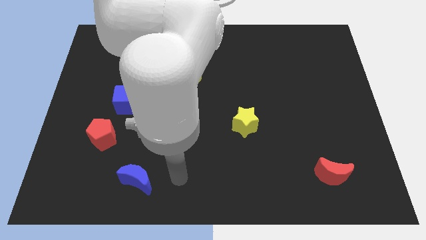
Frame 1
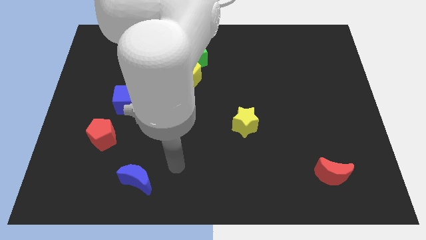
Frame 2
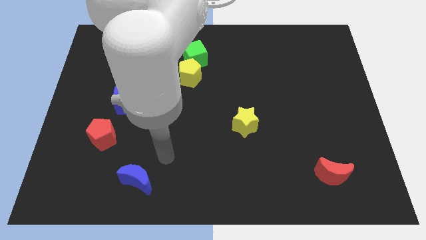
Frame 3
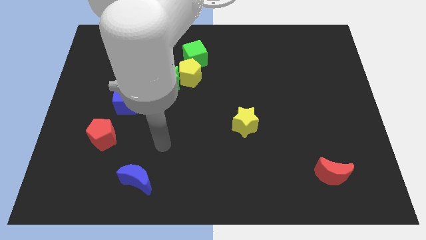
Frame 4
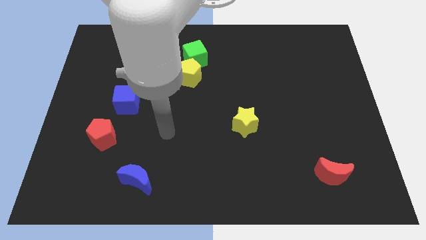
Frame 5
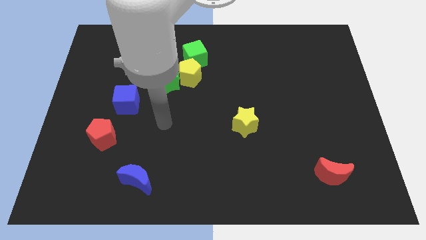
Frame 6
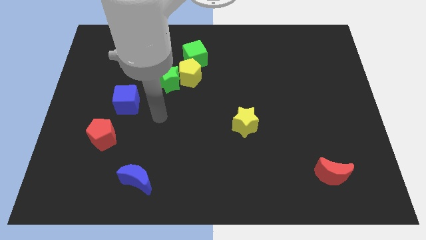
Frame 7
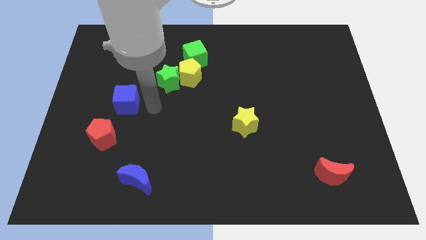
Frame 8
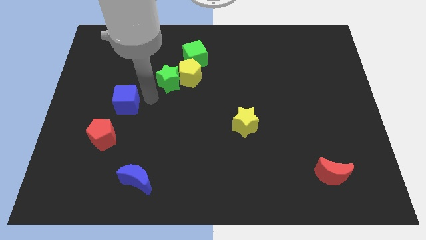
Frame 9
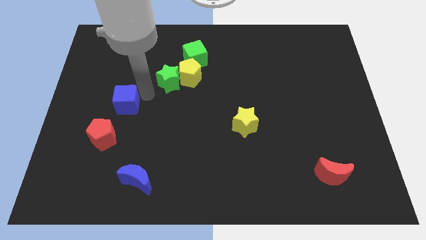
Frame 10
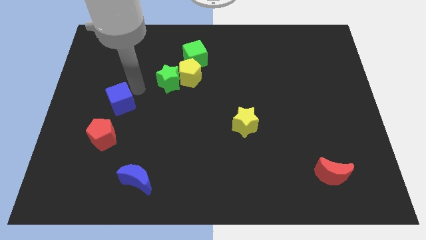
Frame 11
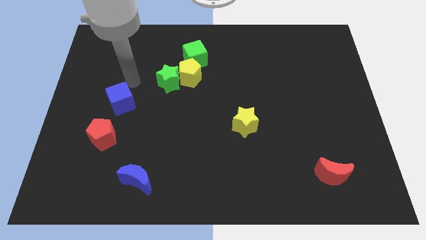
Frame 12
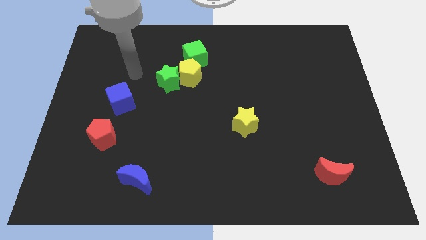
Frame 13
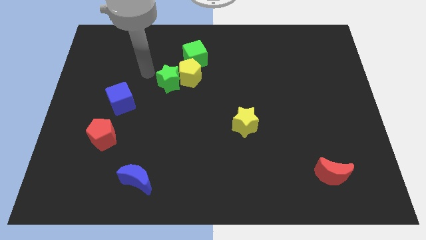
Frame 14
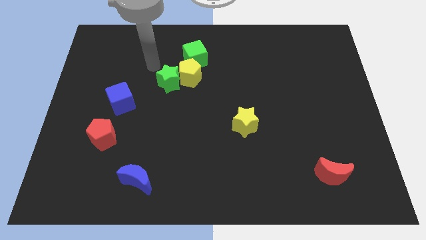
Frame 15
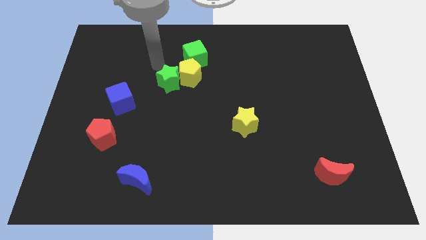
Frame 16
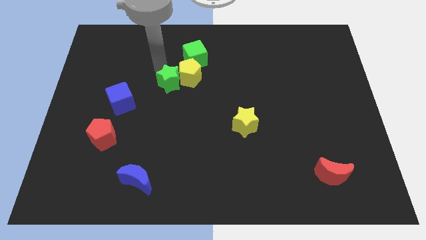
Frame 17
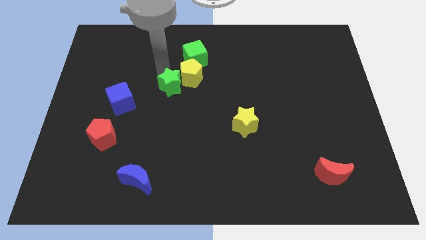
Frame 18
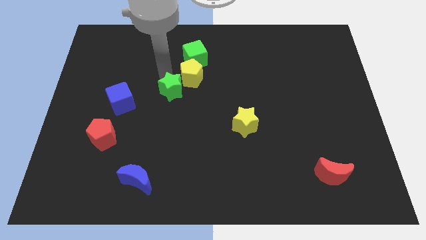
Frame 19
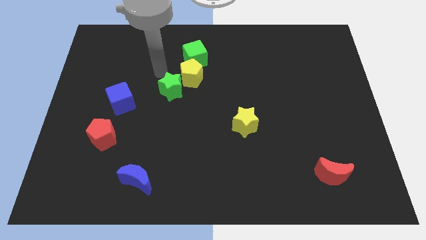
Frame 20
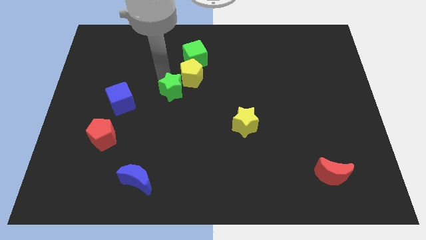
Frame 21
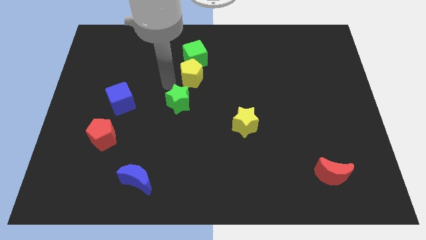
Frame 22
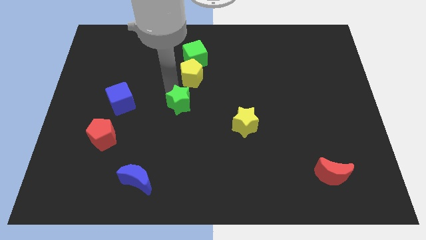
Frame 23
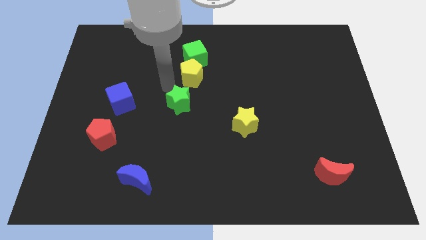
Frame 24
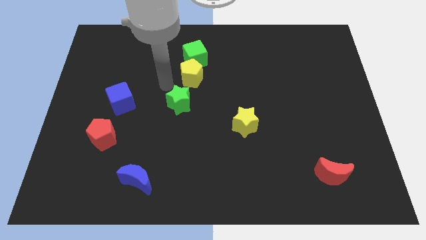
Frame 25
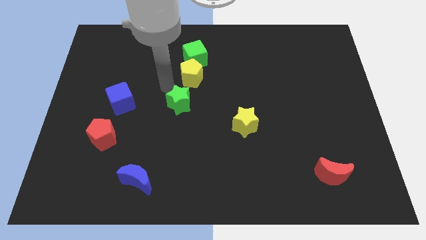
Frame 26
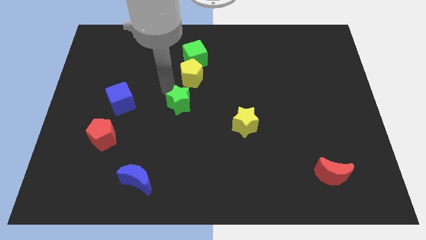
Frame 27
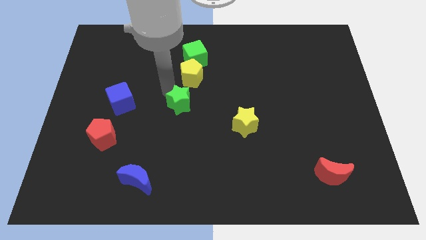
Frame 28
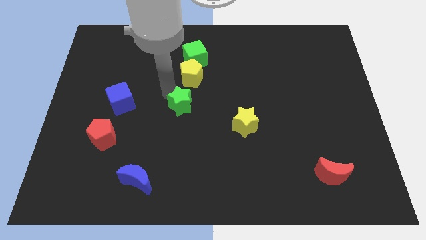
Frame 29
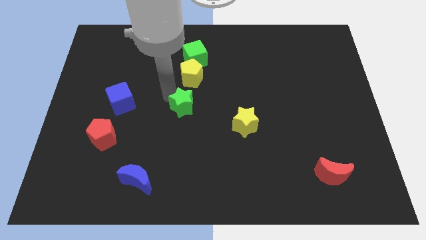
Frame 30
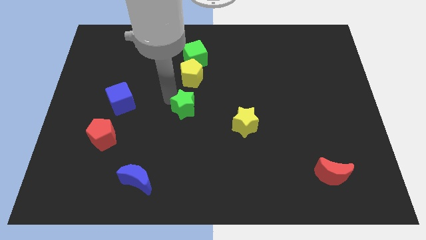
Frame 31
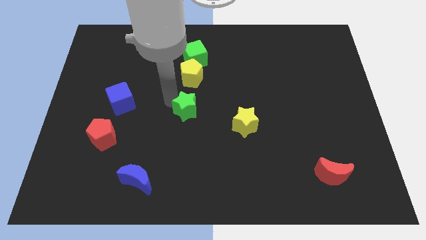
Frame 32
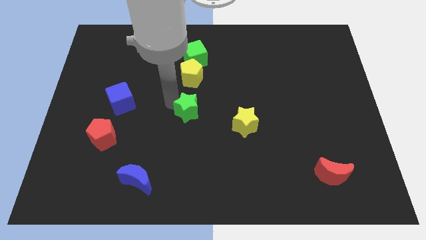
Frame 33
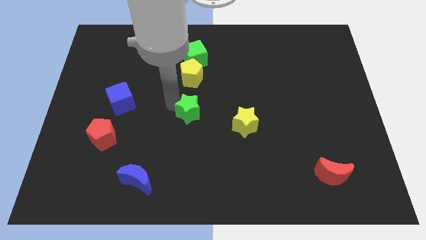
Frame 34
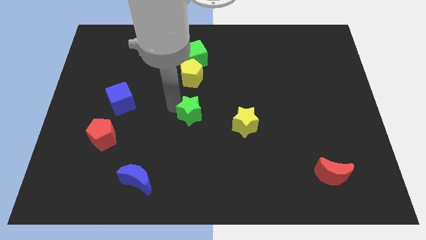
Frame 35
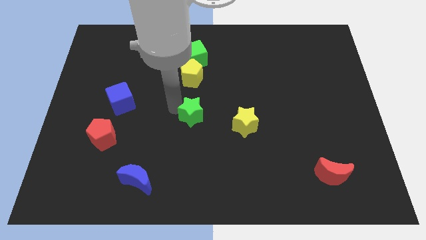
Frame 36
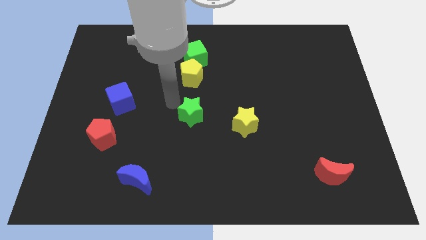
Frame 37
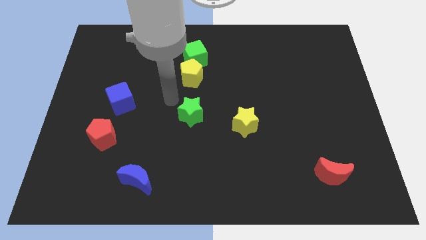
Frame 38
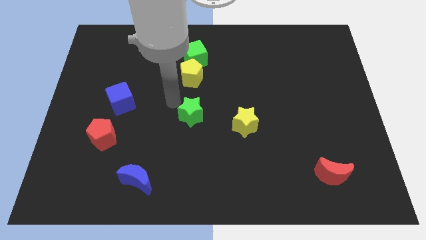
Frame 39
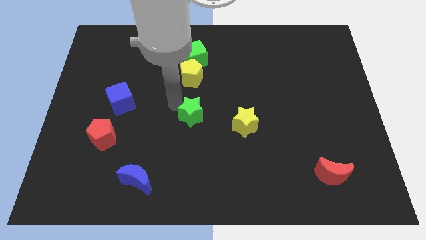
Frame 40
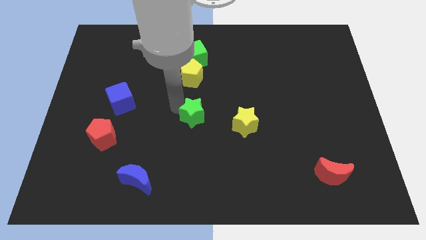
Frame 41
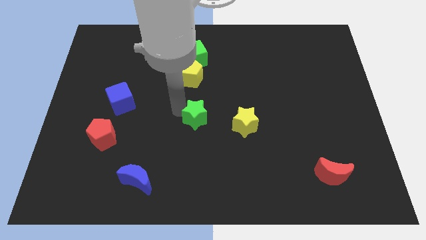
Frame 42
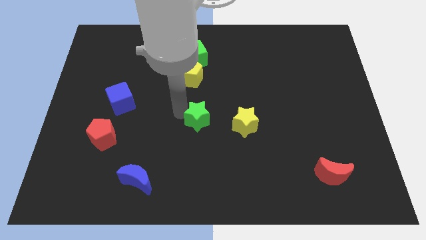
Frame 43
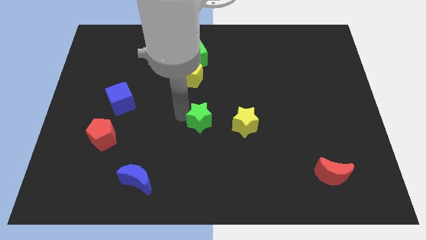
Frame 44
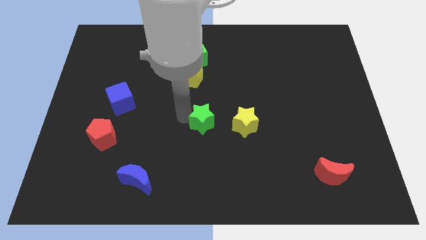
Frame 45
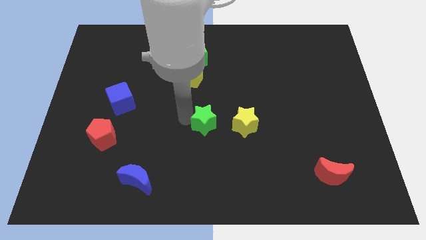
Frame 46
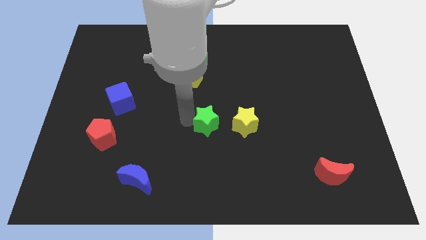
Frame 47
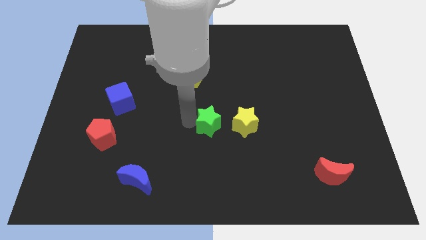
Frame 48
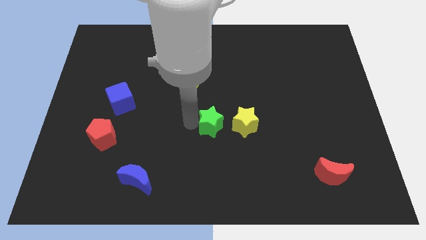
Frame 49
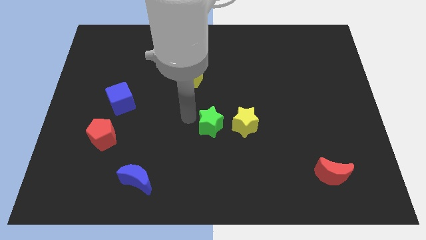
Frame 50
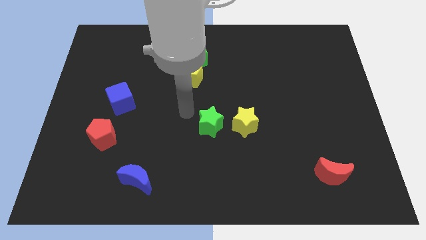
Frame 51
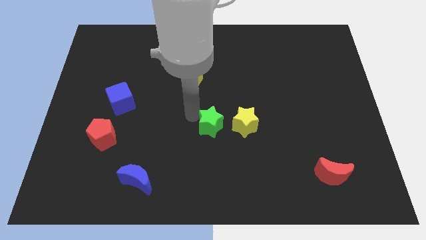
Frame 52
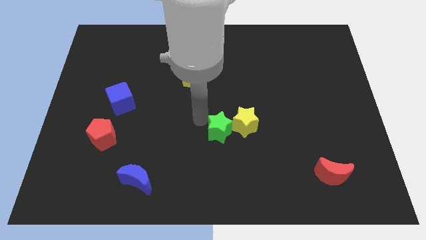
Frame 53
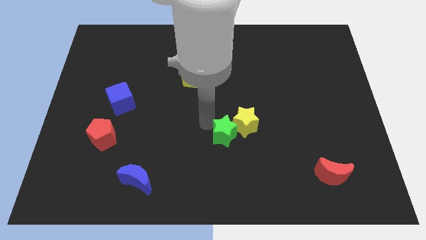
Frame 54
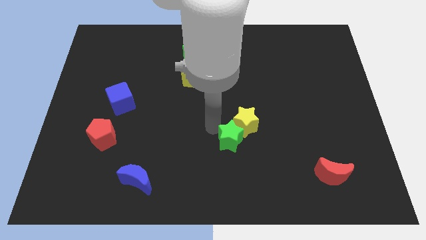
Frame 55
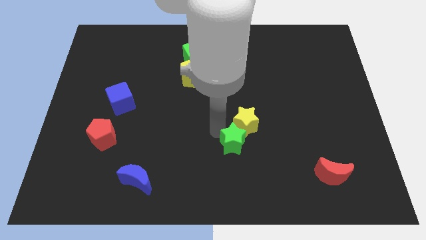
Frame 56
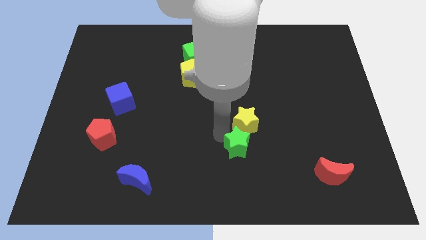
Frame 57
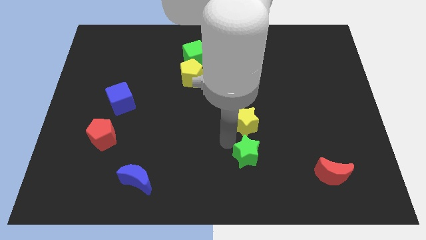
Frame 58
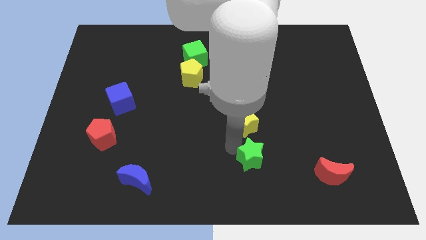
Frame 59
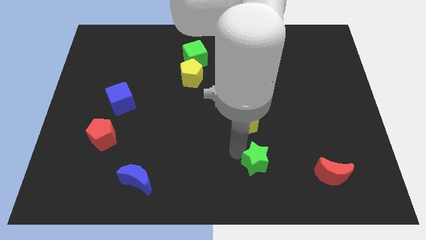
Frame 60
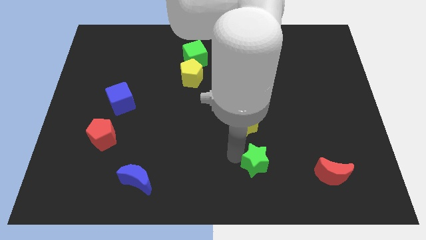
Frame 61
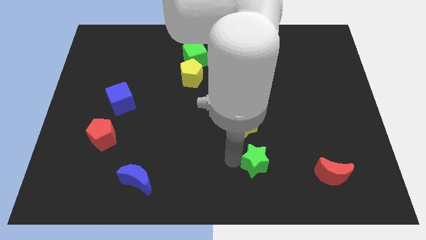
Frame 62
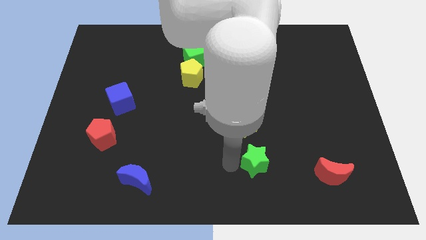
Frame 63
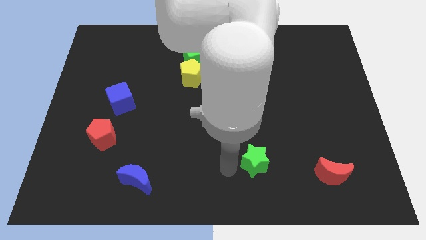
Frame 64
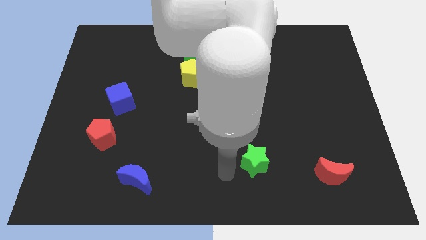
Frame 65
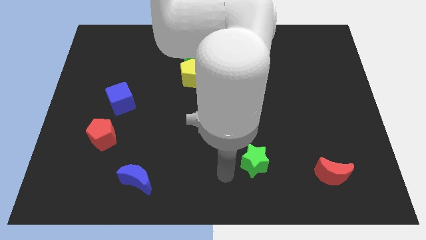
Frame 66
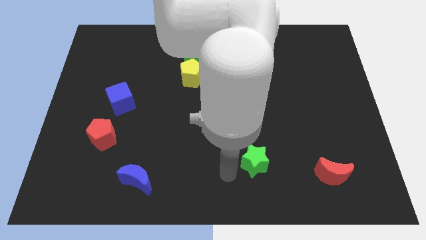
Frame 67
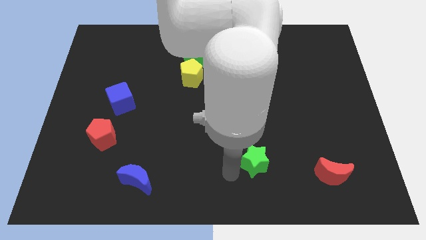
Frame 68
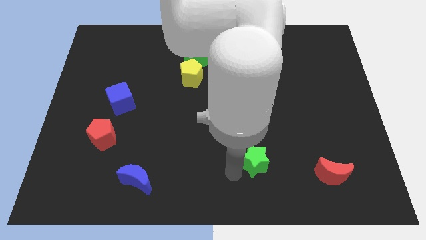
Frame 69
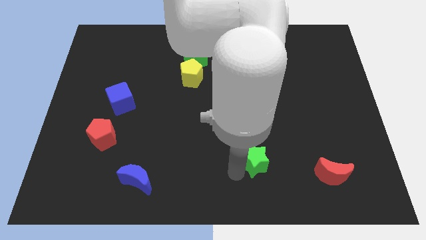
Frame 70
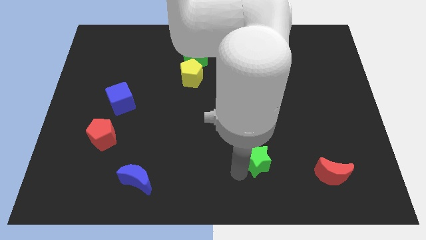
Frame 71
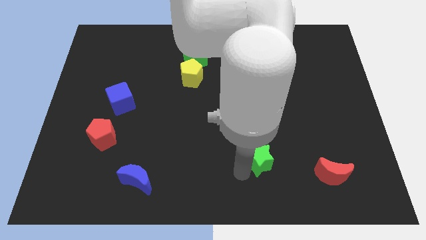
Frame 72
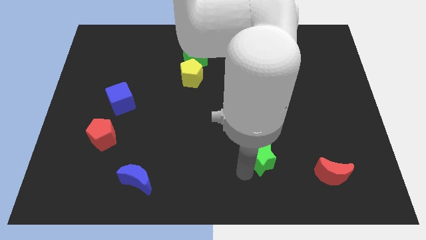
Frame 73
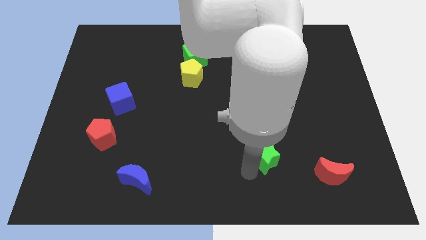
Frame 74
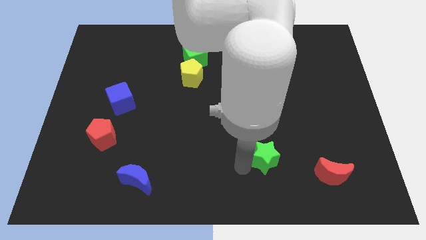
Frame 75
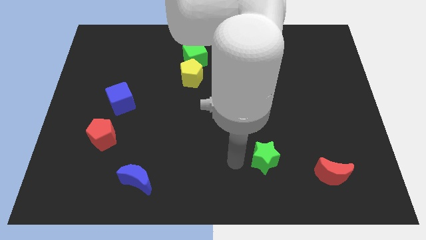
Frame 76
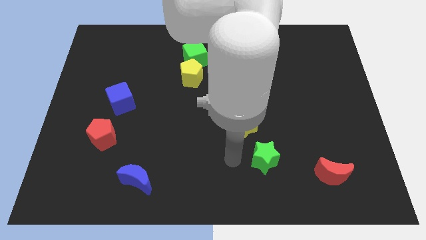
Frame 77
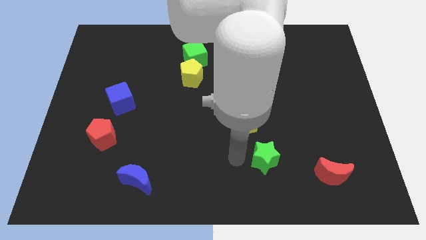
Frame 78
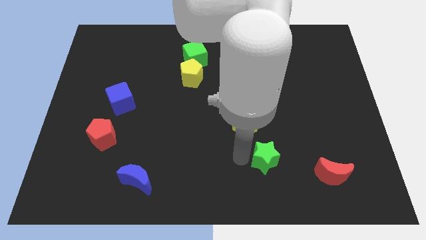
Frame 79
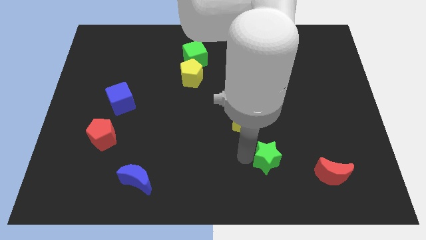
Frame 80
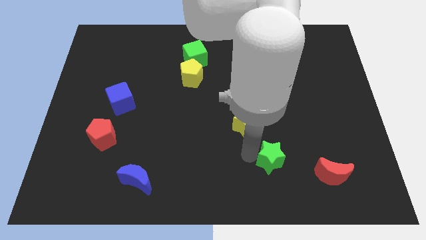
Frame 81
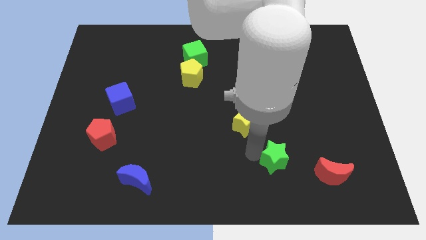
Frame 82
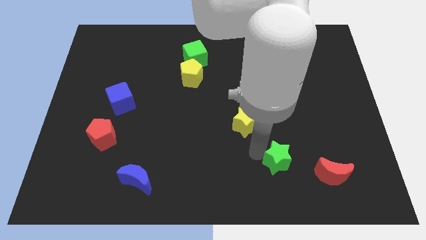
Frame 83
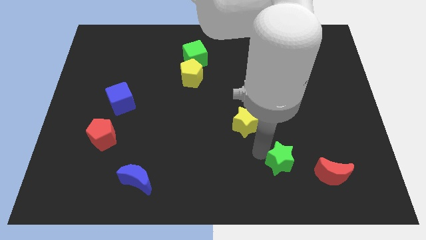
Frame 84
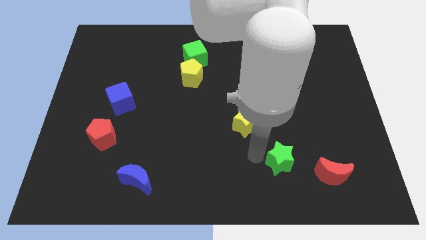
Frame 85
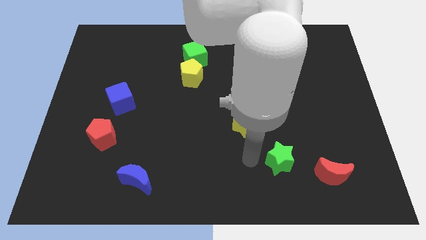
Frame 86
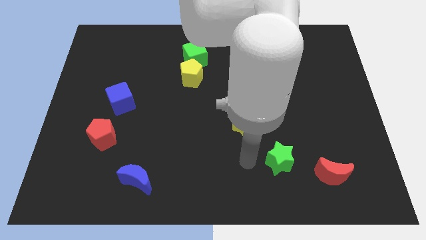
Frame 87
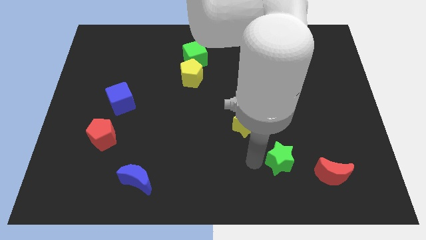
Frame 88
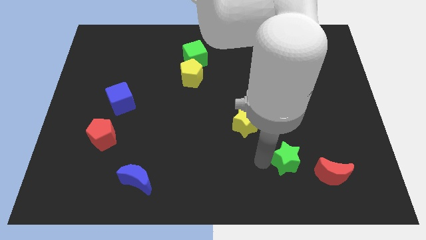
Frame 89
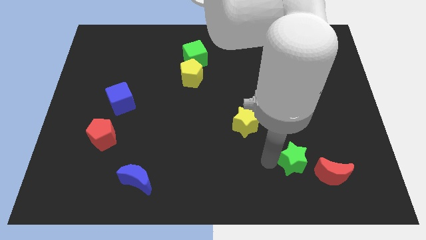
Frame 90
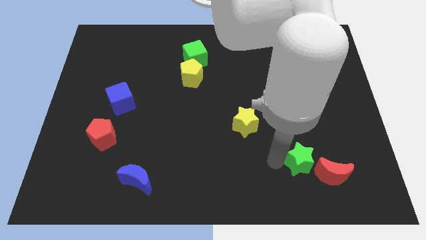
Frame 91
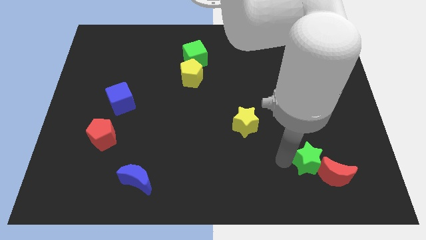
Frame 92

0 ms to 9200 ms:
move the green star to the red moon
